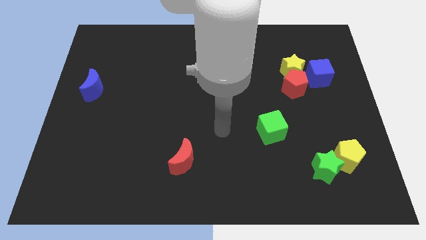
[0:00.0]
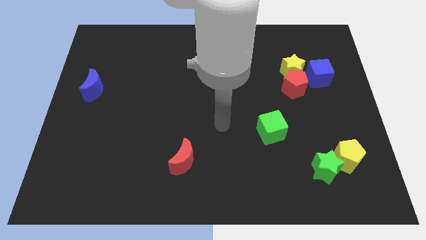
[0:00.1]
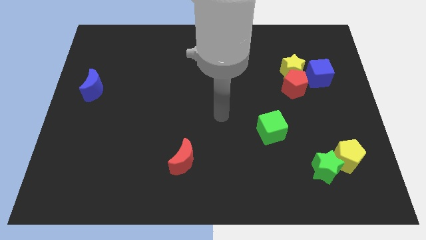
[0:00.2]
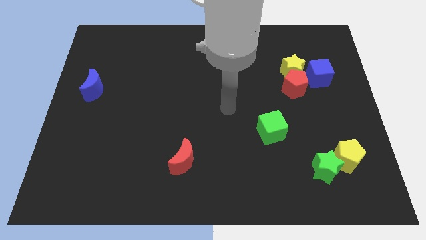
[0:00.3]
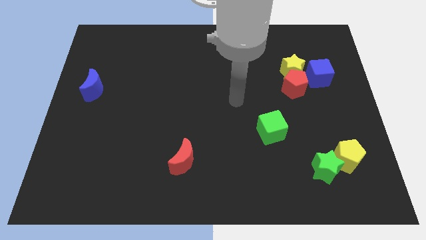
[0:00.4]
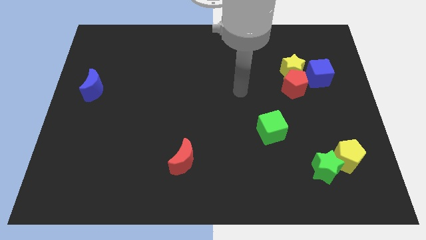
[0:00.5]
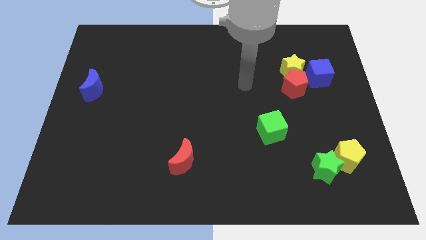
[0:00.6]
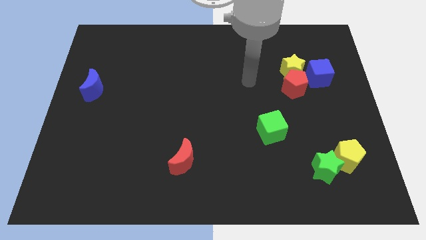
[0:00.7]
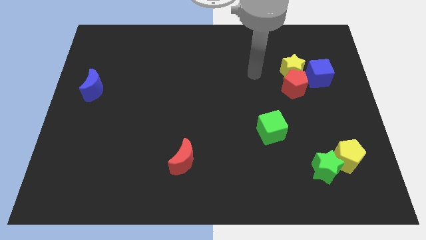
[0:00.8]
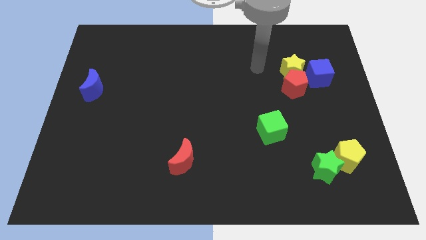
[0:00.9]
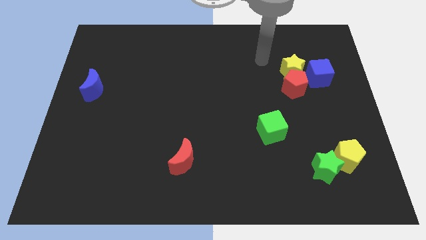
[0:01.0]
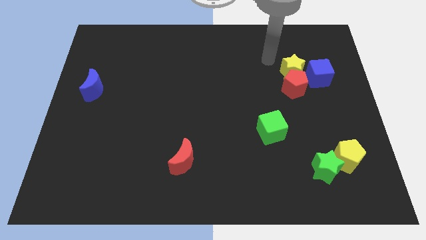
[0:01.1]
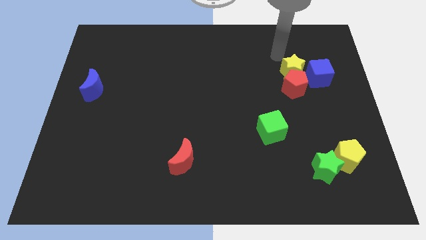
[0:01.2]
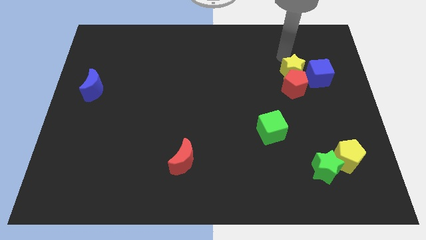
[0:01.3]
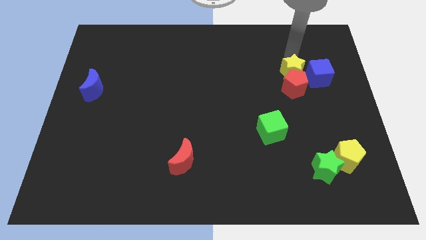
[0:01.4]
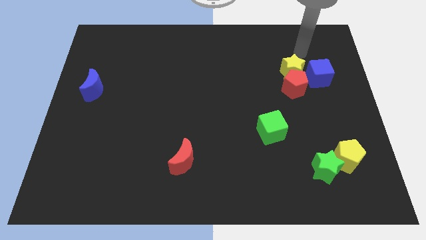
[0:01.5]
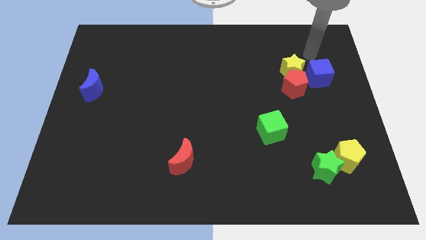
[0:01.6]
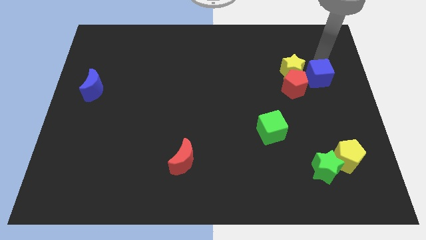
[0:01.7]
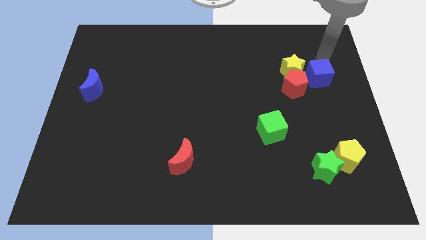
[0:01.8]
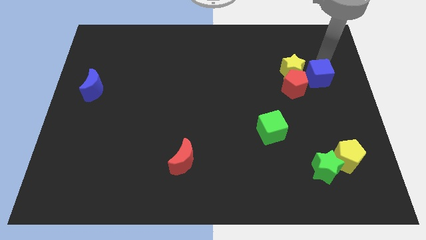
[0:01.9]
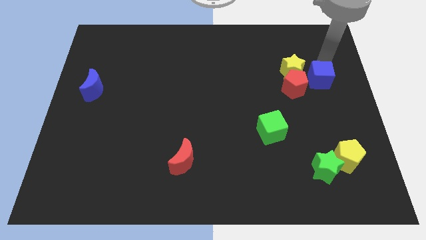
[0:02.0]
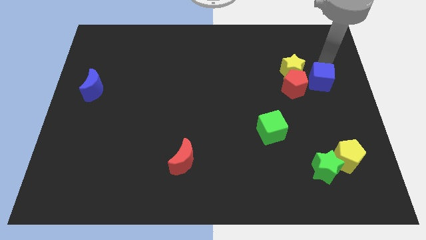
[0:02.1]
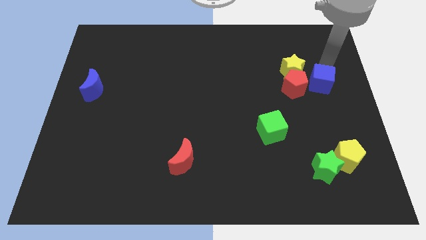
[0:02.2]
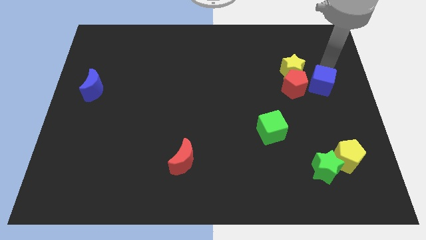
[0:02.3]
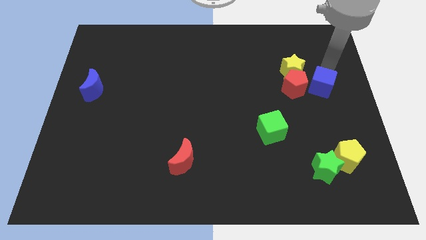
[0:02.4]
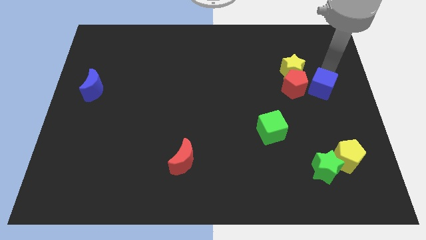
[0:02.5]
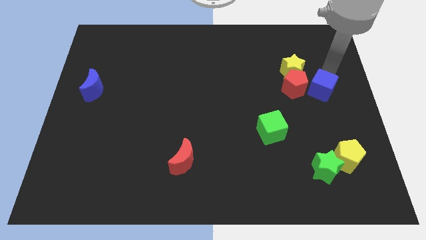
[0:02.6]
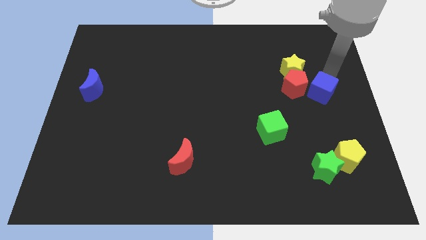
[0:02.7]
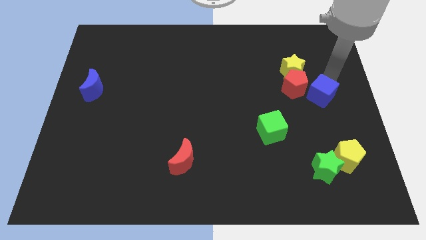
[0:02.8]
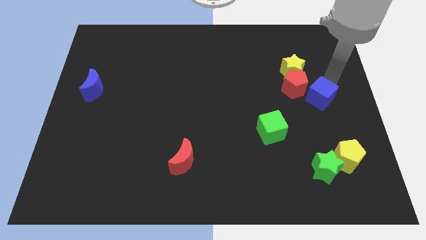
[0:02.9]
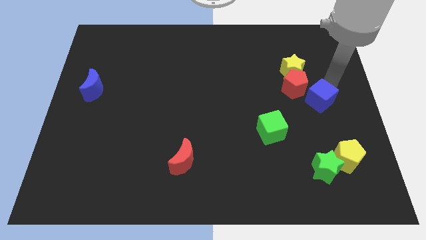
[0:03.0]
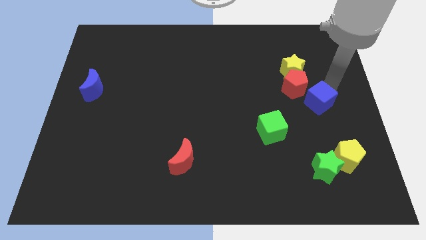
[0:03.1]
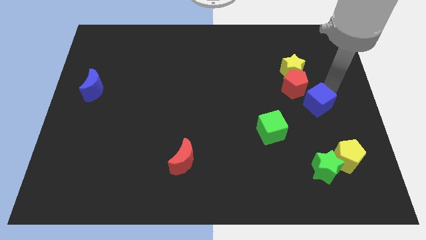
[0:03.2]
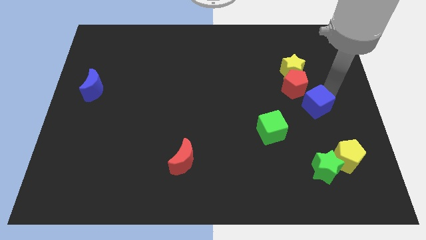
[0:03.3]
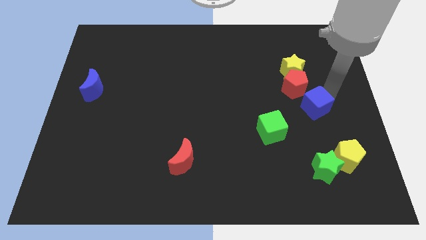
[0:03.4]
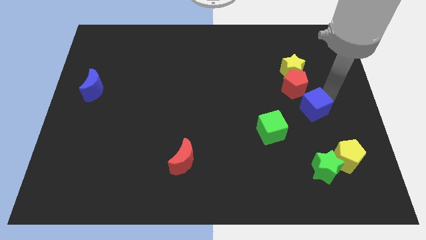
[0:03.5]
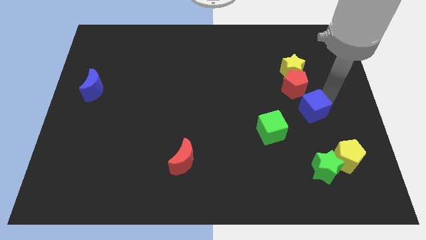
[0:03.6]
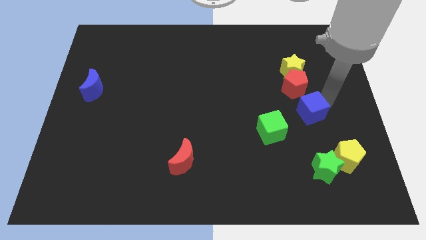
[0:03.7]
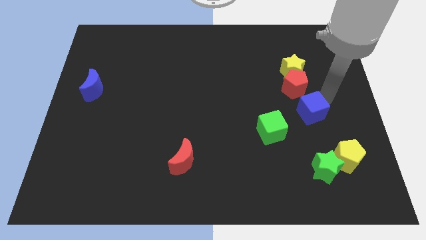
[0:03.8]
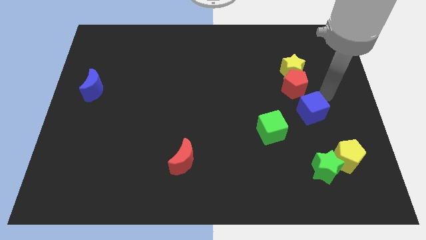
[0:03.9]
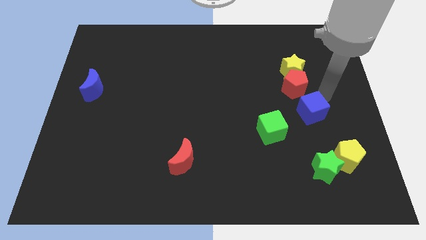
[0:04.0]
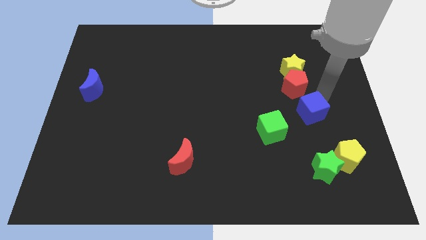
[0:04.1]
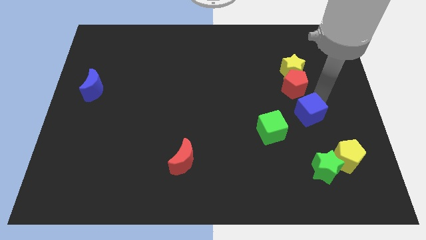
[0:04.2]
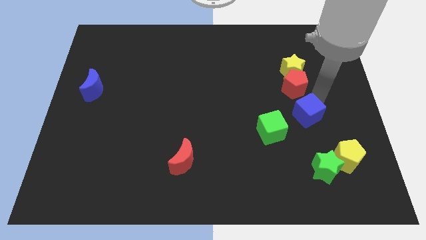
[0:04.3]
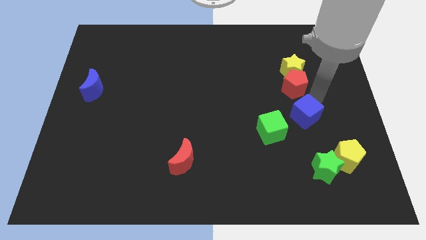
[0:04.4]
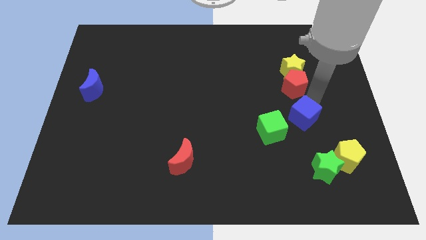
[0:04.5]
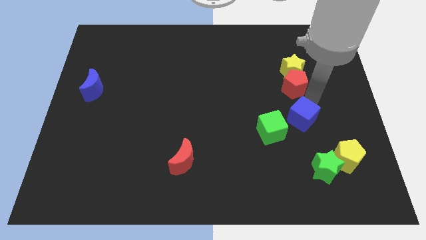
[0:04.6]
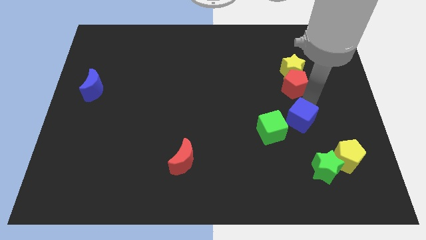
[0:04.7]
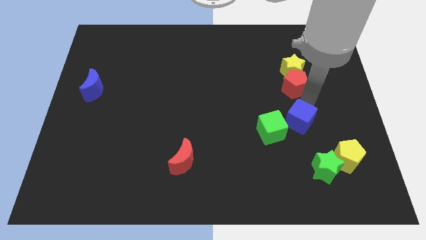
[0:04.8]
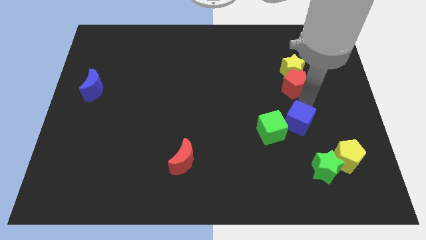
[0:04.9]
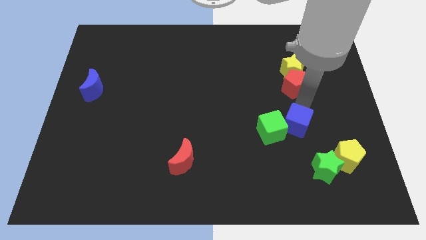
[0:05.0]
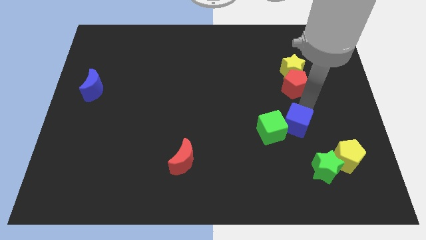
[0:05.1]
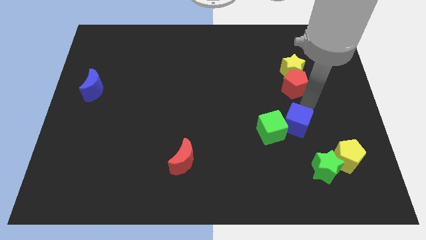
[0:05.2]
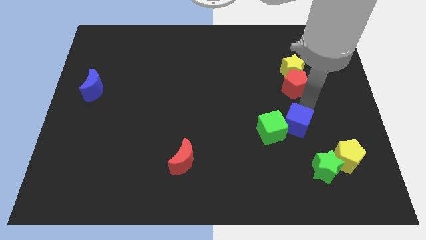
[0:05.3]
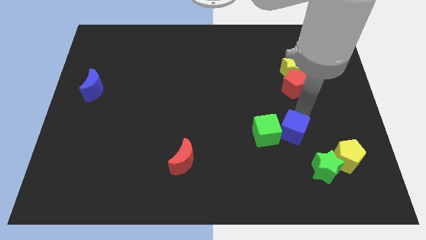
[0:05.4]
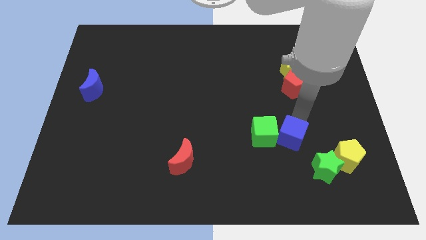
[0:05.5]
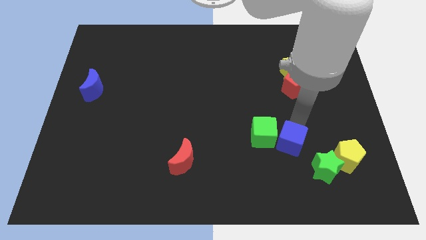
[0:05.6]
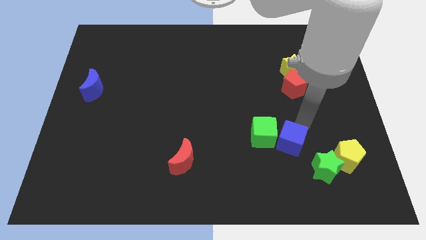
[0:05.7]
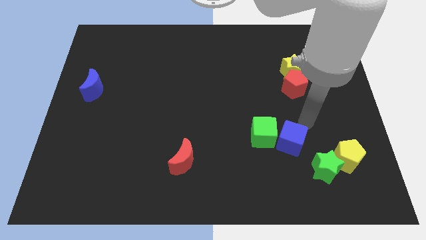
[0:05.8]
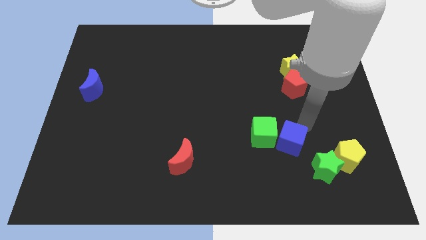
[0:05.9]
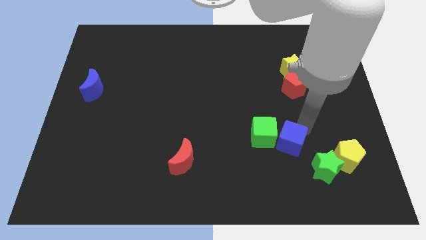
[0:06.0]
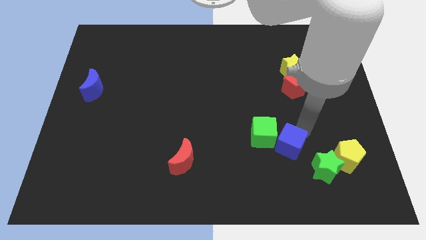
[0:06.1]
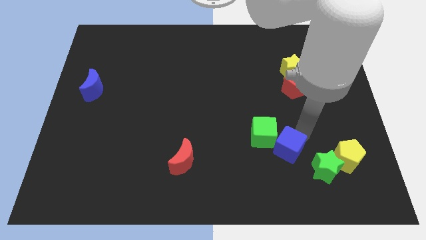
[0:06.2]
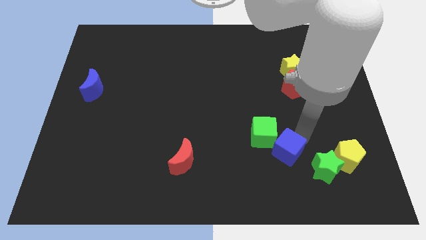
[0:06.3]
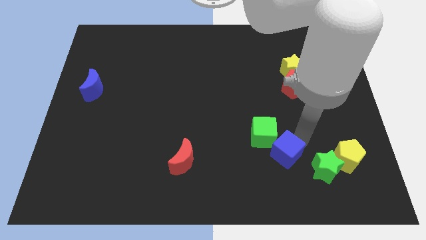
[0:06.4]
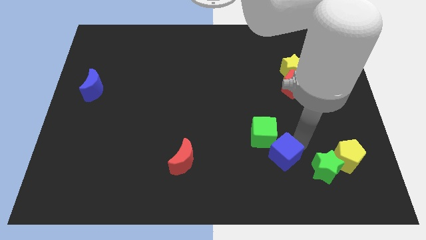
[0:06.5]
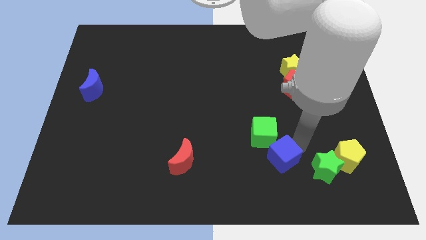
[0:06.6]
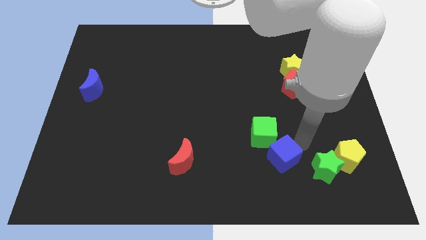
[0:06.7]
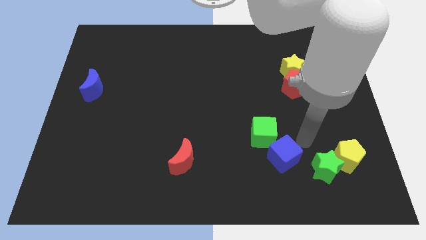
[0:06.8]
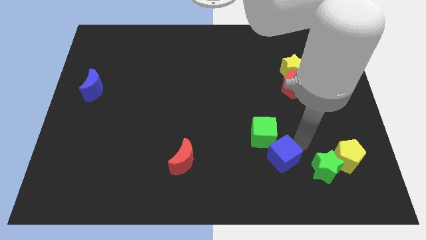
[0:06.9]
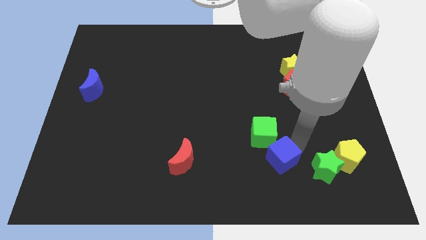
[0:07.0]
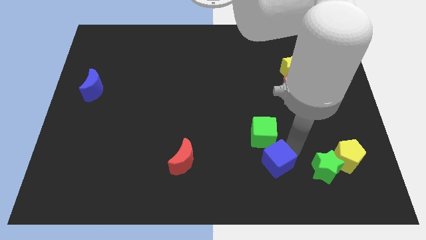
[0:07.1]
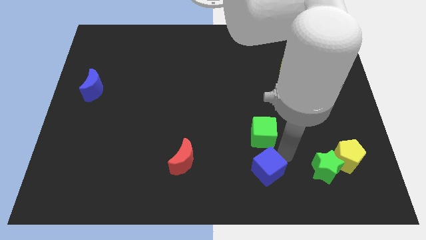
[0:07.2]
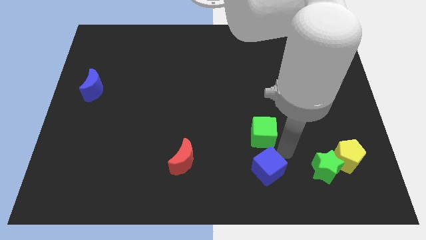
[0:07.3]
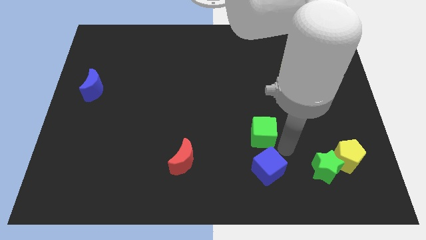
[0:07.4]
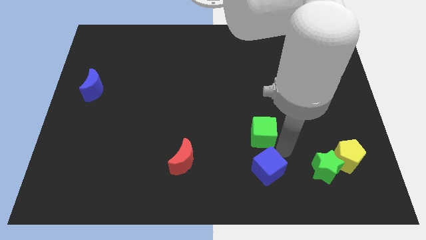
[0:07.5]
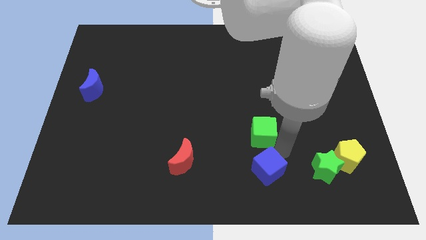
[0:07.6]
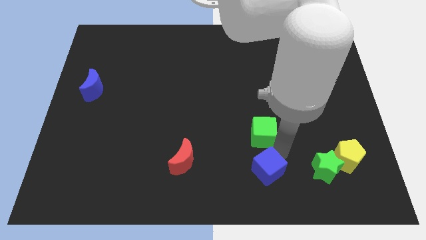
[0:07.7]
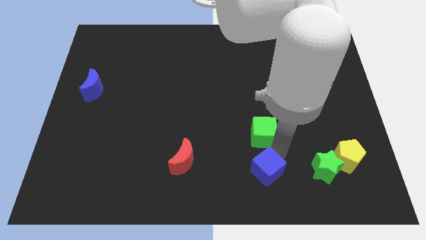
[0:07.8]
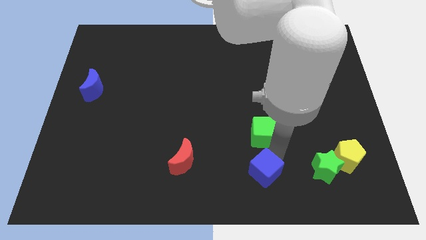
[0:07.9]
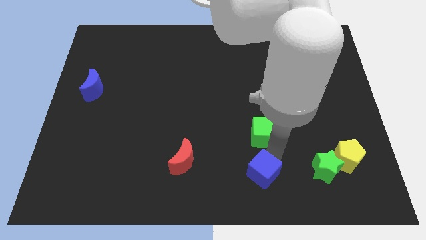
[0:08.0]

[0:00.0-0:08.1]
put the blue cube to the bottom
